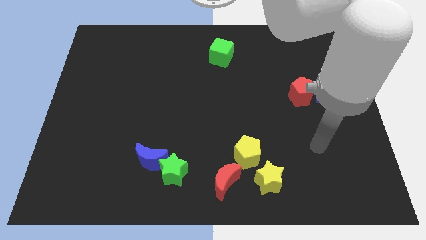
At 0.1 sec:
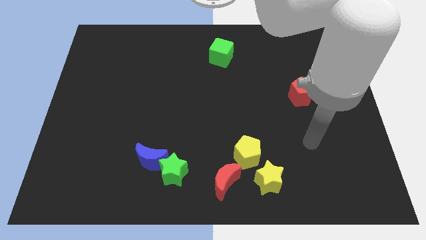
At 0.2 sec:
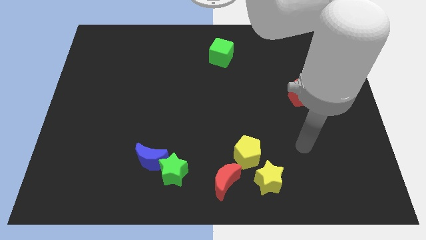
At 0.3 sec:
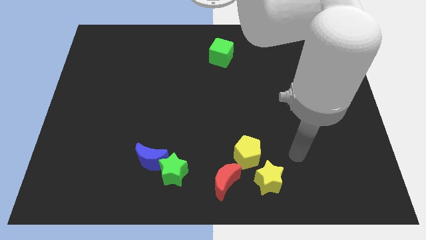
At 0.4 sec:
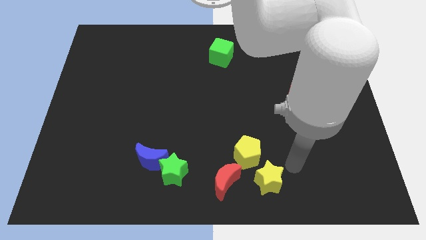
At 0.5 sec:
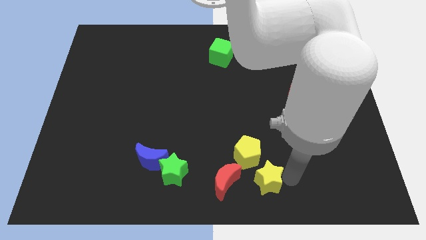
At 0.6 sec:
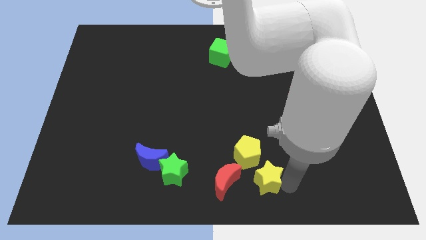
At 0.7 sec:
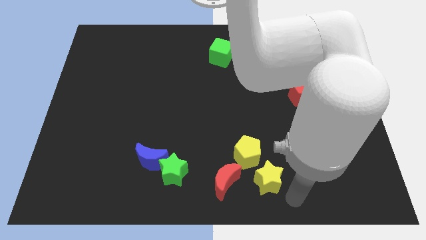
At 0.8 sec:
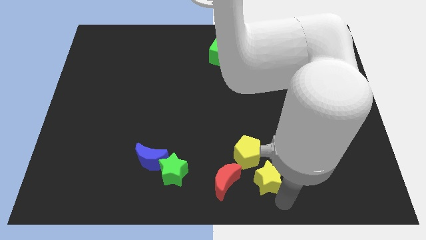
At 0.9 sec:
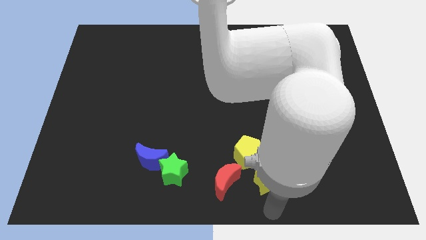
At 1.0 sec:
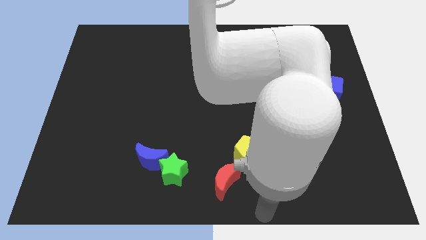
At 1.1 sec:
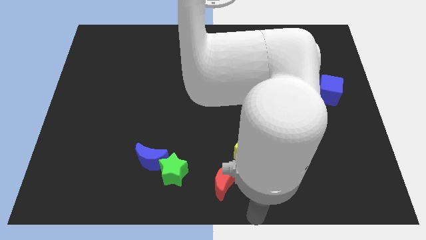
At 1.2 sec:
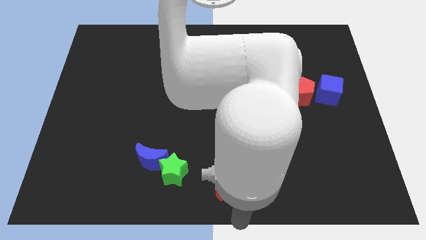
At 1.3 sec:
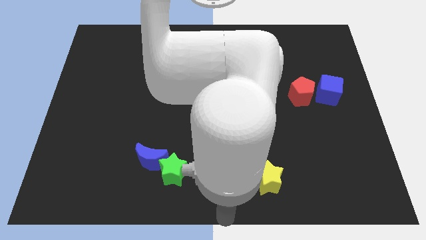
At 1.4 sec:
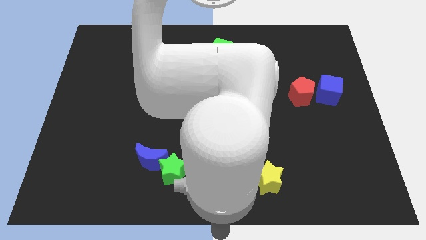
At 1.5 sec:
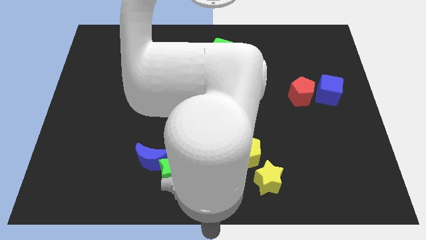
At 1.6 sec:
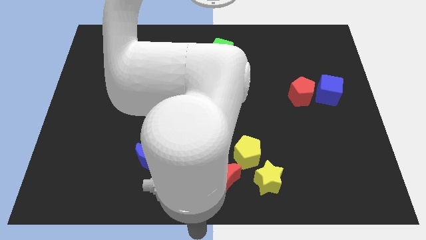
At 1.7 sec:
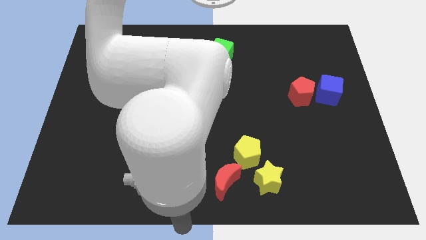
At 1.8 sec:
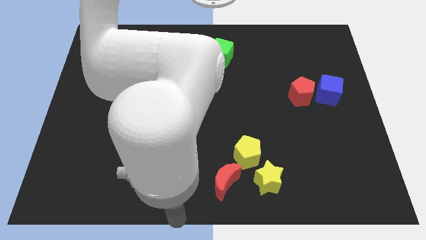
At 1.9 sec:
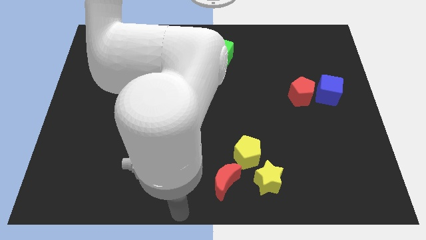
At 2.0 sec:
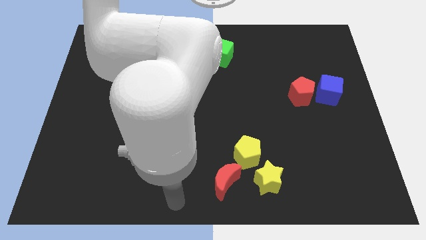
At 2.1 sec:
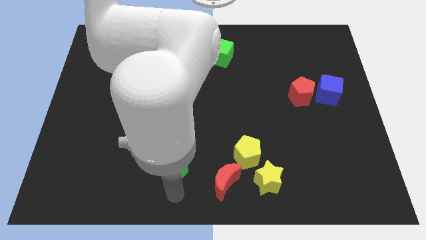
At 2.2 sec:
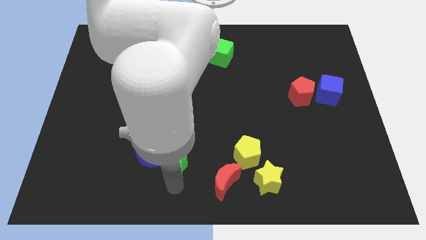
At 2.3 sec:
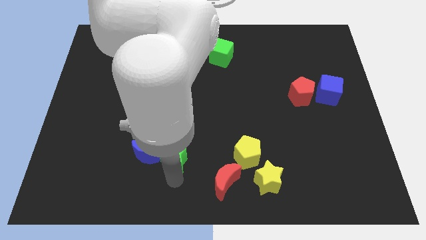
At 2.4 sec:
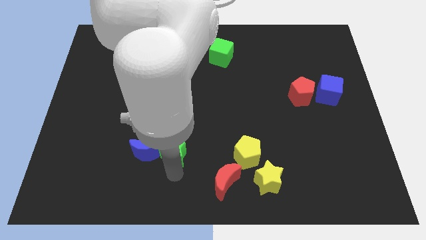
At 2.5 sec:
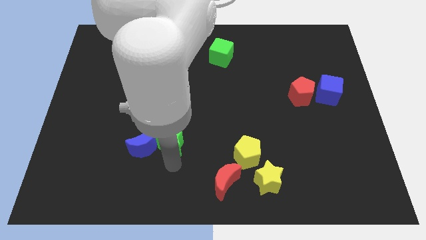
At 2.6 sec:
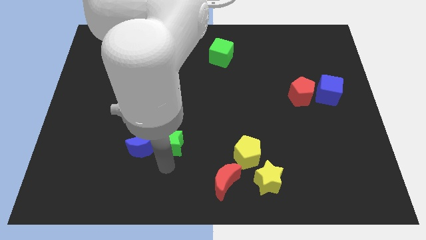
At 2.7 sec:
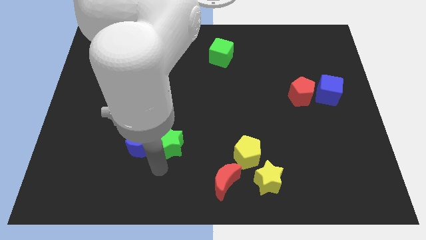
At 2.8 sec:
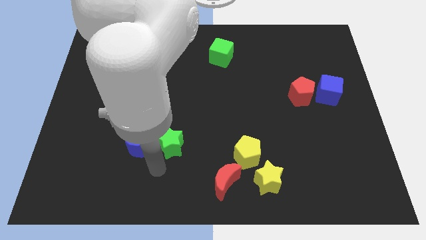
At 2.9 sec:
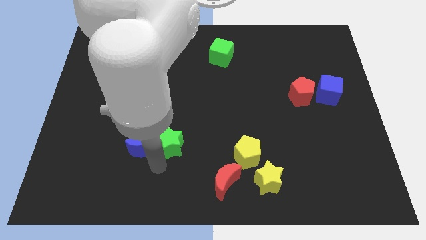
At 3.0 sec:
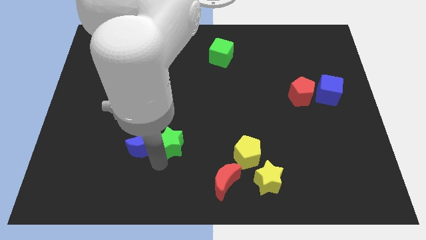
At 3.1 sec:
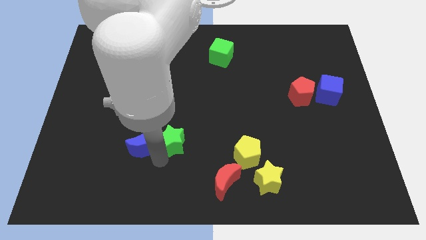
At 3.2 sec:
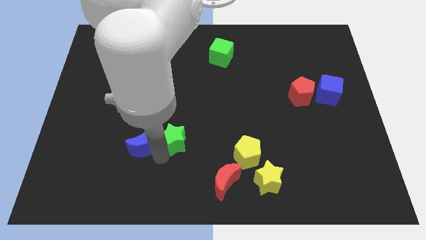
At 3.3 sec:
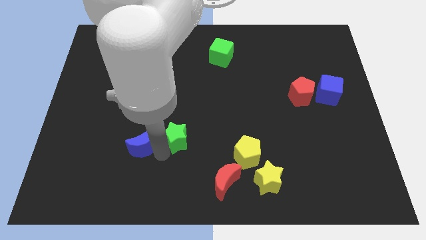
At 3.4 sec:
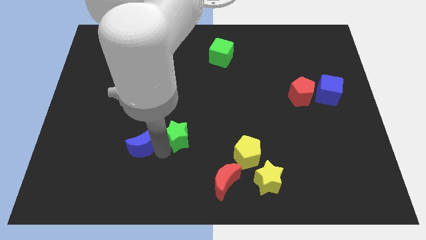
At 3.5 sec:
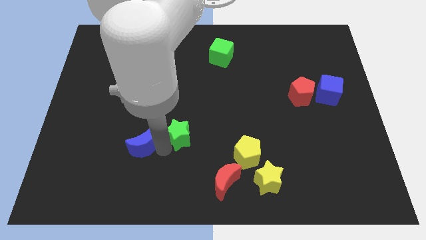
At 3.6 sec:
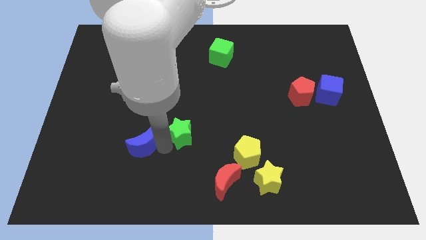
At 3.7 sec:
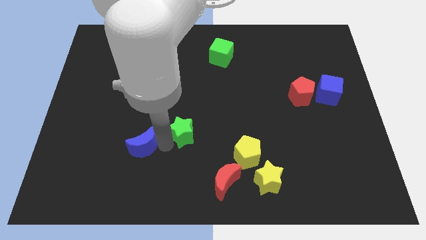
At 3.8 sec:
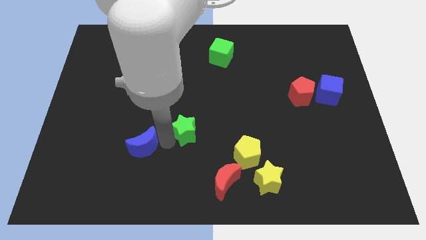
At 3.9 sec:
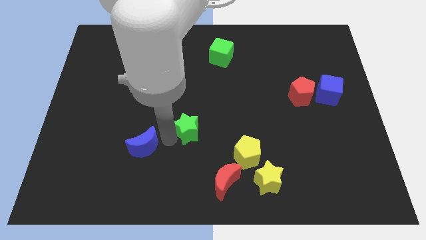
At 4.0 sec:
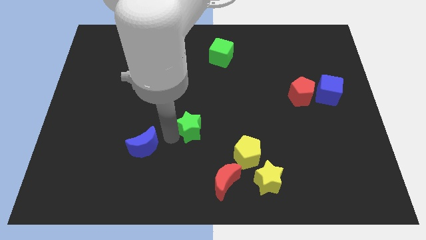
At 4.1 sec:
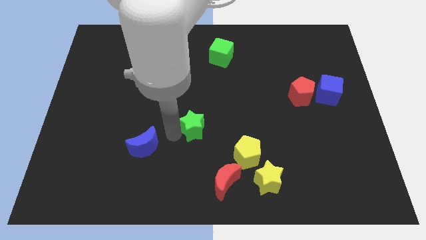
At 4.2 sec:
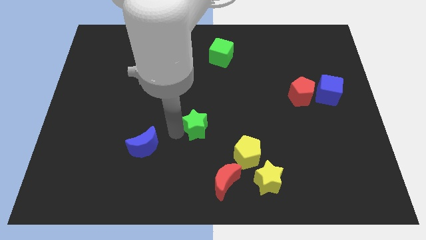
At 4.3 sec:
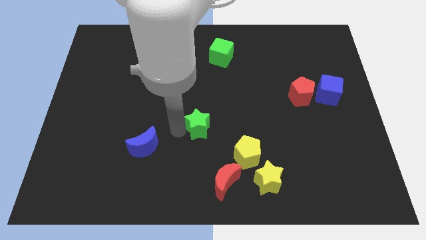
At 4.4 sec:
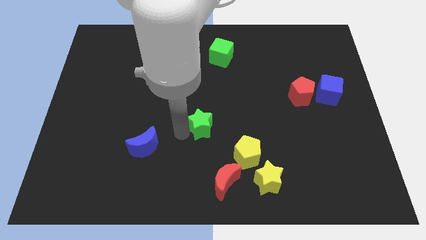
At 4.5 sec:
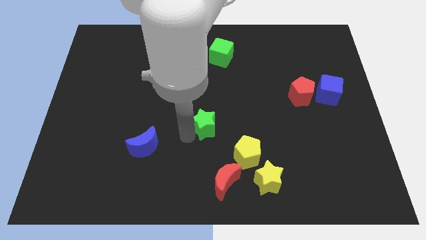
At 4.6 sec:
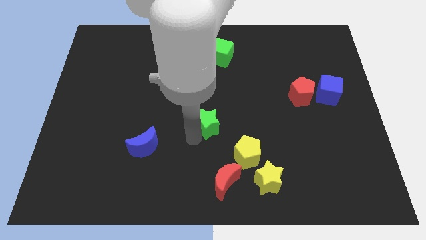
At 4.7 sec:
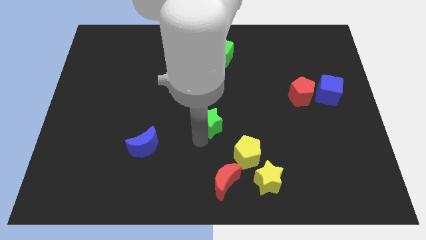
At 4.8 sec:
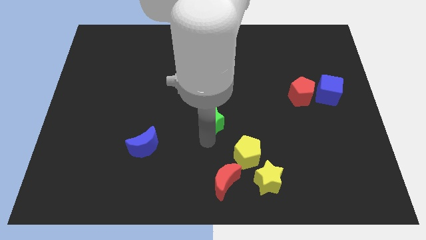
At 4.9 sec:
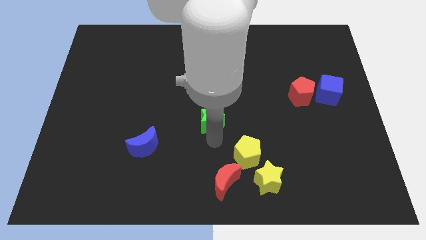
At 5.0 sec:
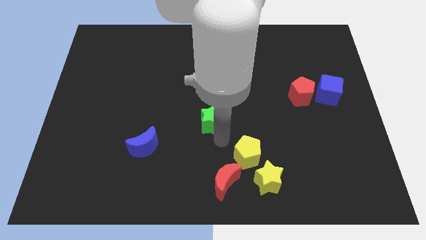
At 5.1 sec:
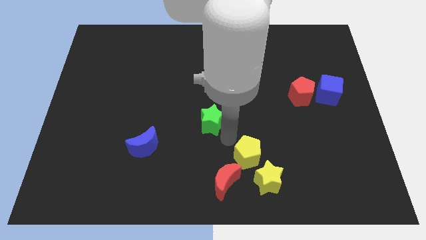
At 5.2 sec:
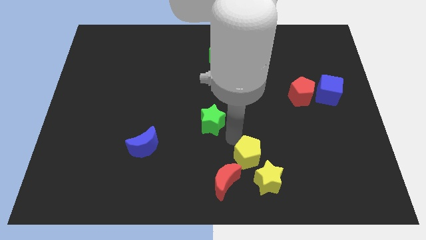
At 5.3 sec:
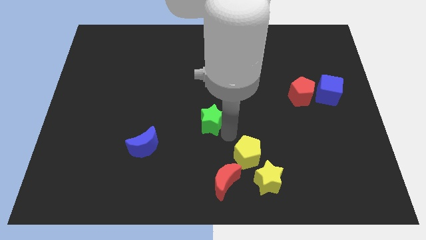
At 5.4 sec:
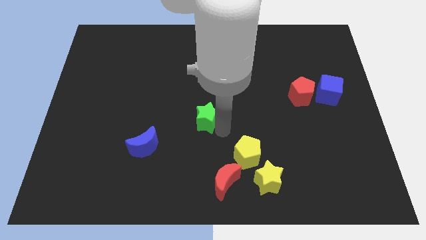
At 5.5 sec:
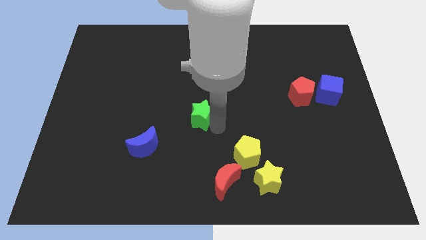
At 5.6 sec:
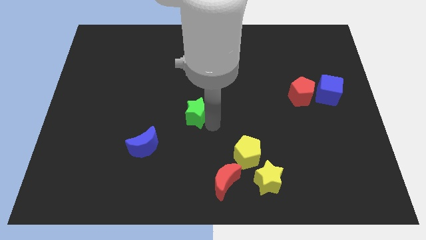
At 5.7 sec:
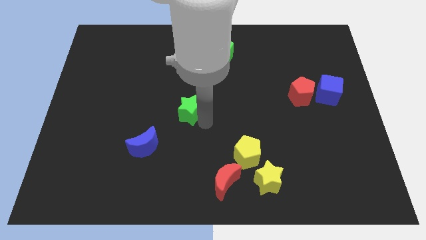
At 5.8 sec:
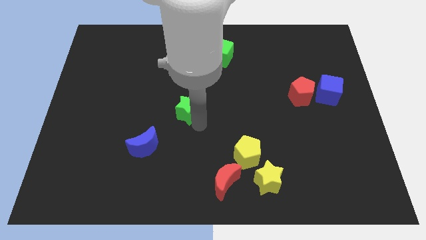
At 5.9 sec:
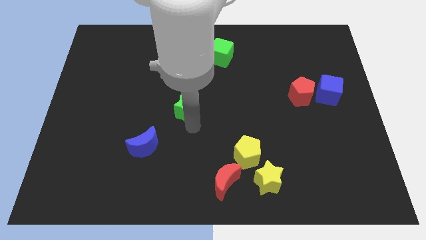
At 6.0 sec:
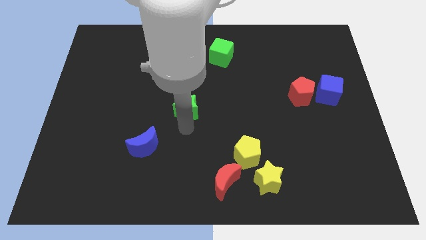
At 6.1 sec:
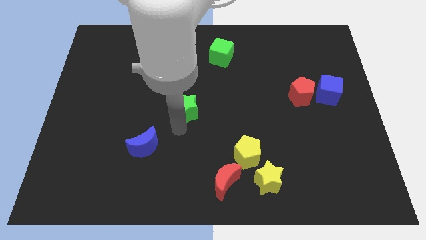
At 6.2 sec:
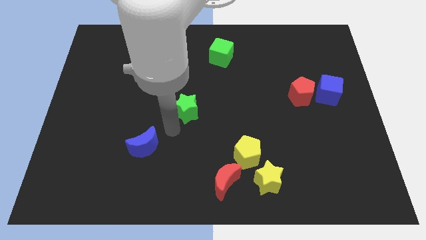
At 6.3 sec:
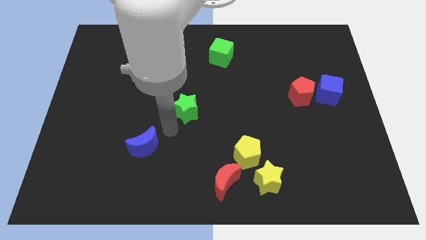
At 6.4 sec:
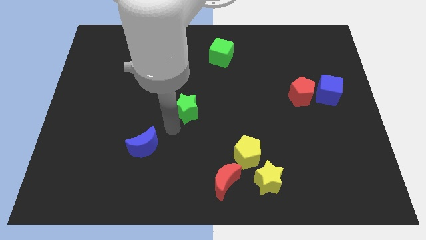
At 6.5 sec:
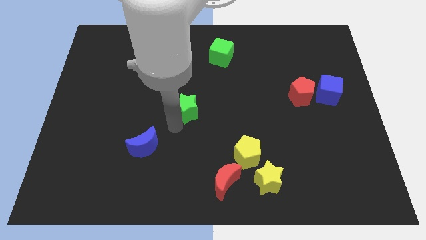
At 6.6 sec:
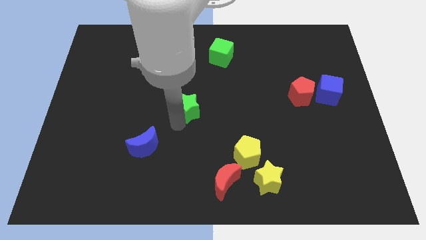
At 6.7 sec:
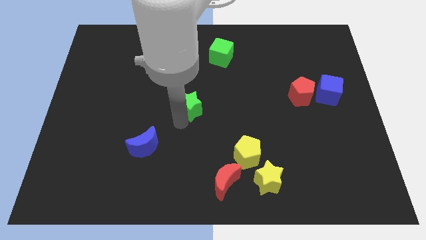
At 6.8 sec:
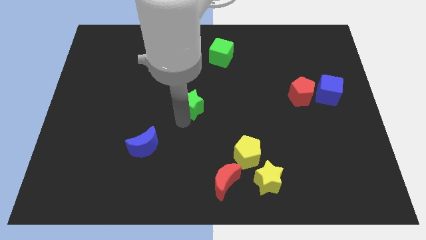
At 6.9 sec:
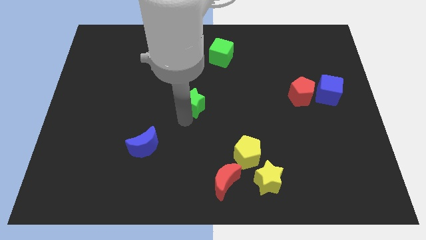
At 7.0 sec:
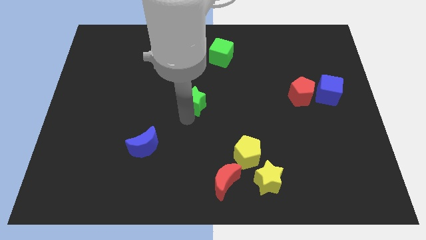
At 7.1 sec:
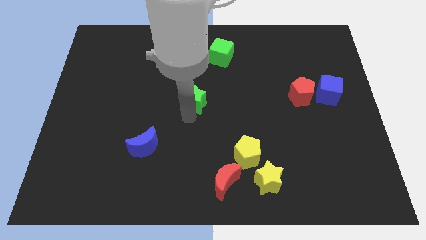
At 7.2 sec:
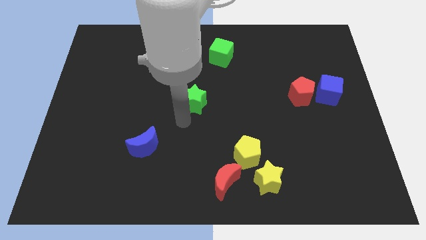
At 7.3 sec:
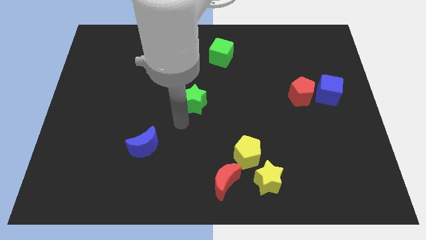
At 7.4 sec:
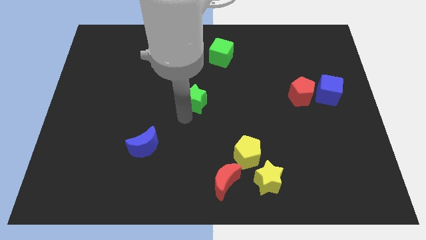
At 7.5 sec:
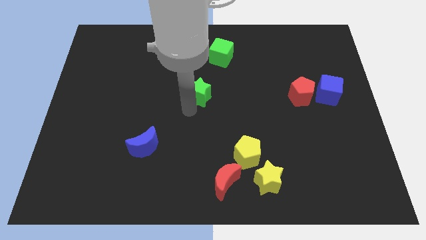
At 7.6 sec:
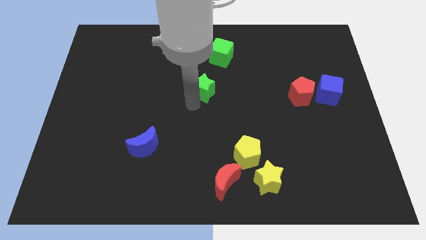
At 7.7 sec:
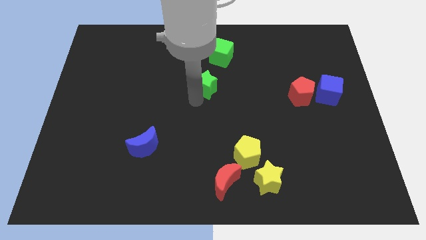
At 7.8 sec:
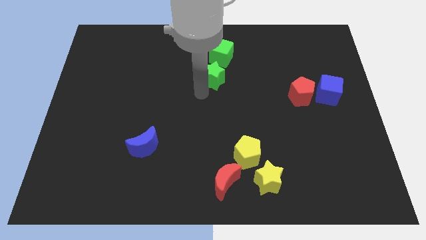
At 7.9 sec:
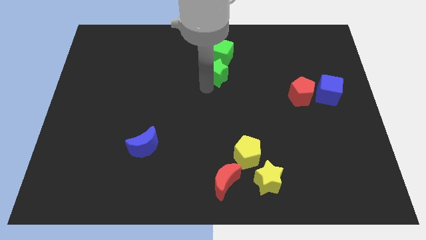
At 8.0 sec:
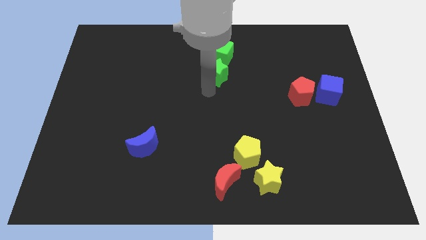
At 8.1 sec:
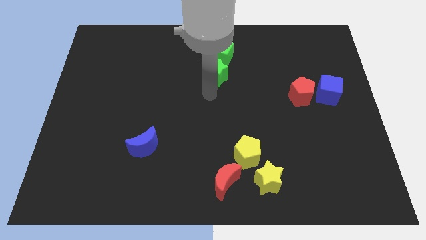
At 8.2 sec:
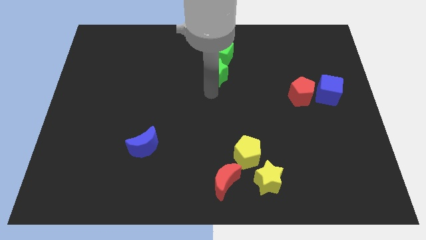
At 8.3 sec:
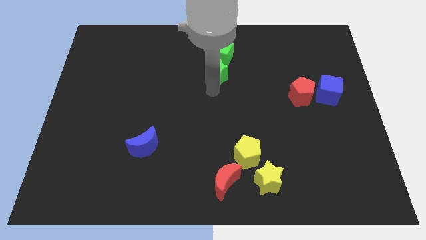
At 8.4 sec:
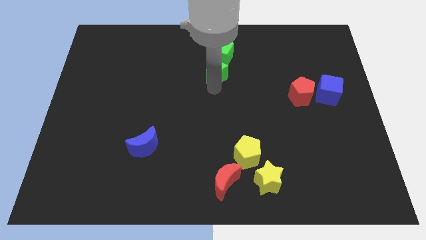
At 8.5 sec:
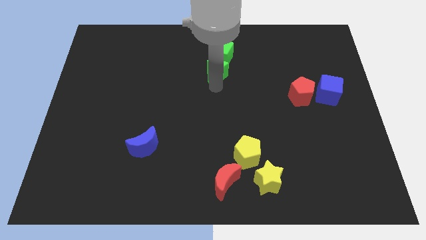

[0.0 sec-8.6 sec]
put the green star to the green cube
